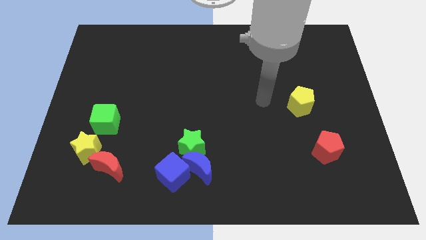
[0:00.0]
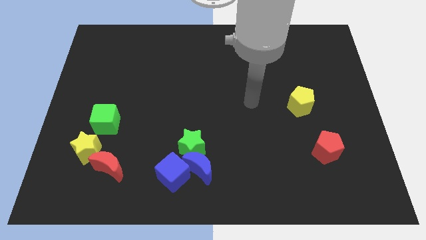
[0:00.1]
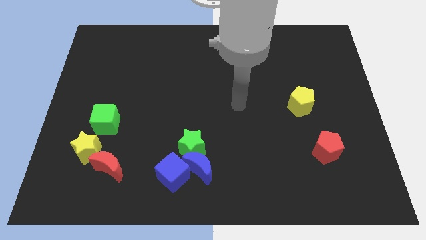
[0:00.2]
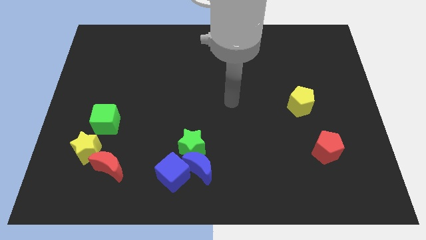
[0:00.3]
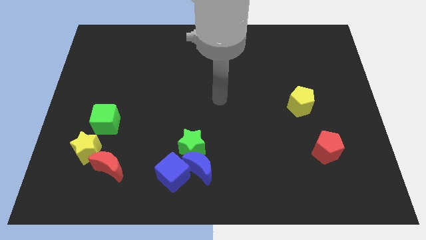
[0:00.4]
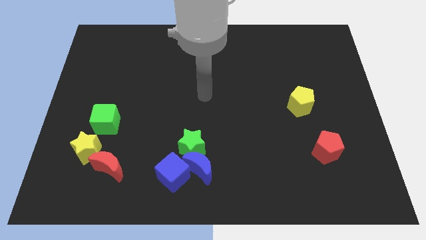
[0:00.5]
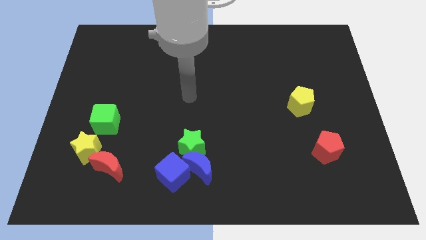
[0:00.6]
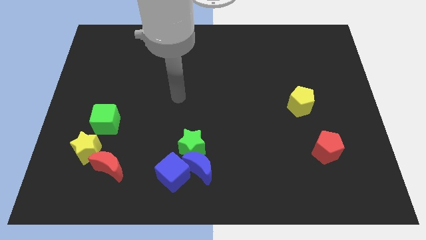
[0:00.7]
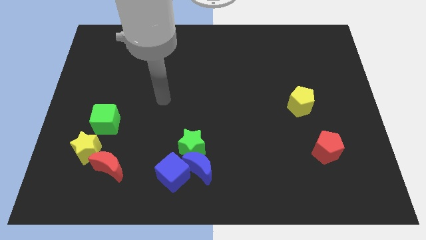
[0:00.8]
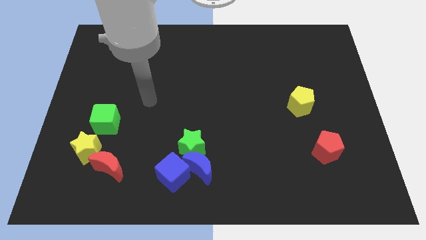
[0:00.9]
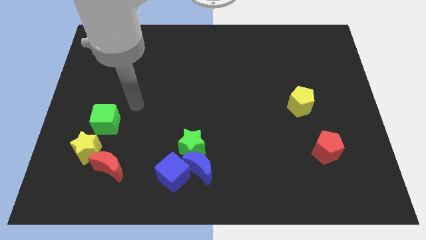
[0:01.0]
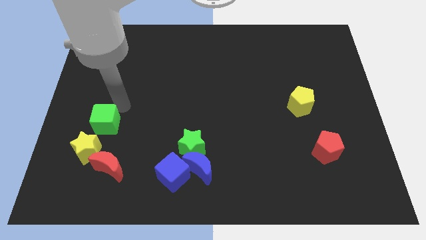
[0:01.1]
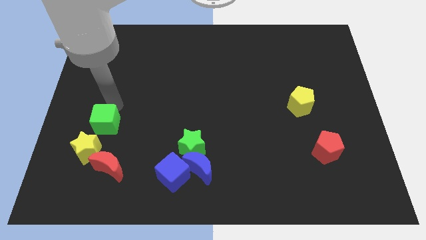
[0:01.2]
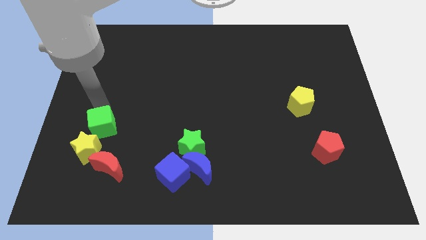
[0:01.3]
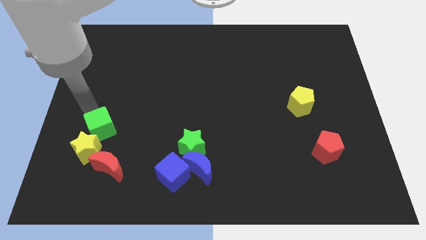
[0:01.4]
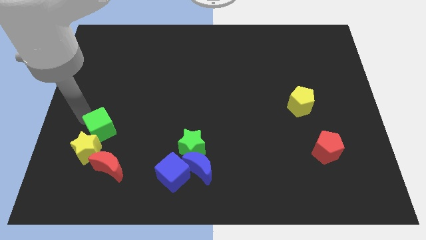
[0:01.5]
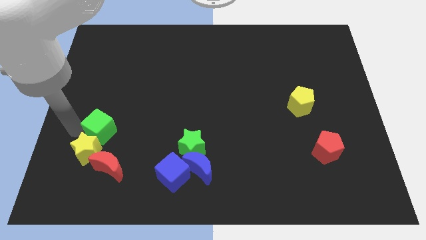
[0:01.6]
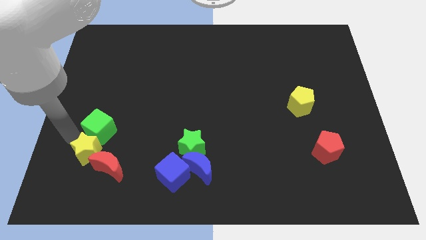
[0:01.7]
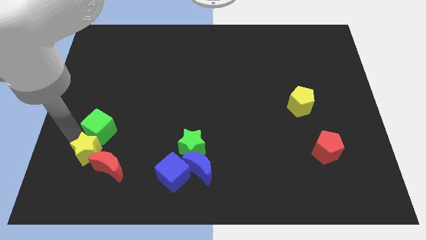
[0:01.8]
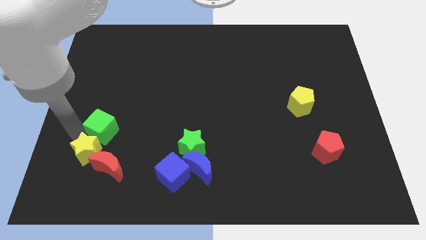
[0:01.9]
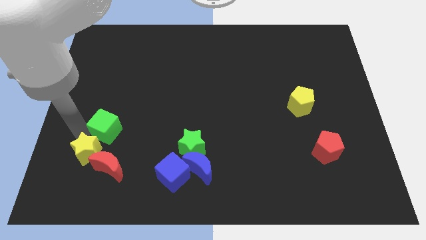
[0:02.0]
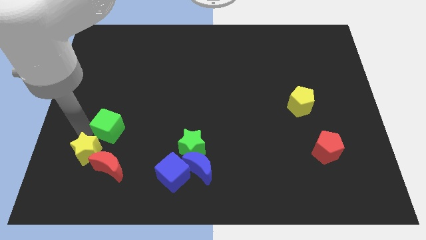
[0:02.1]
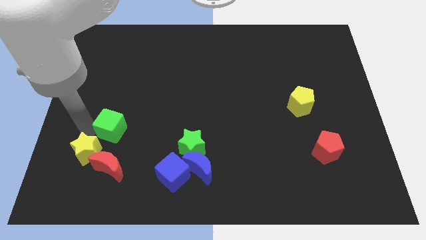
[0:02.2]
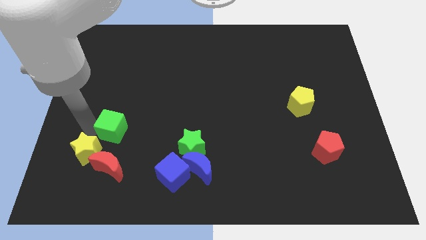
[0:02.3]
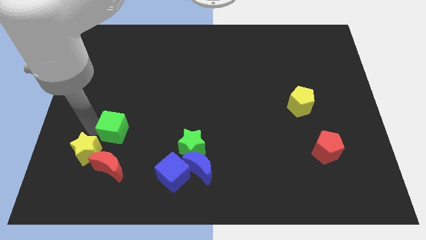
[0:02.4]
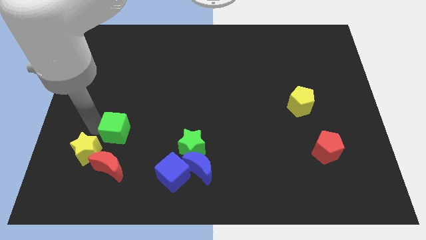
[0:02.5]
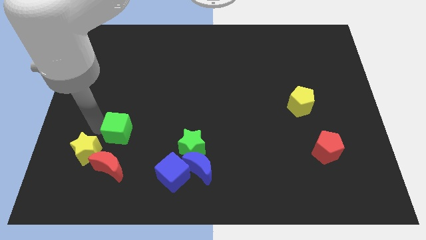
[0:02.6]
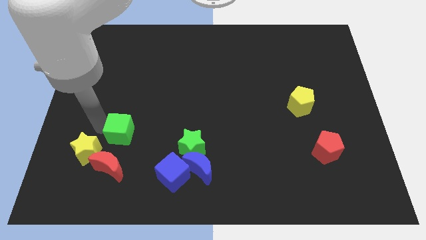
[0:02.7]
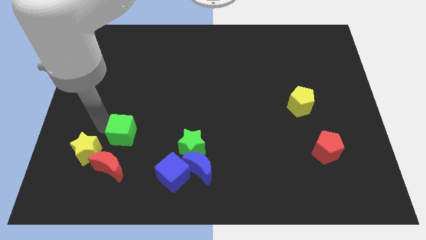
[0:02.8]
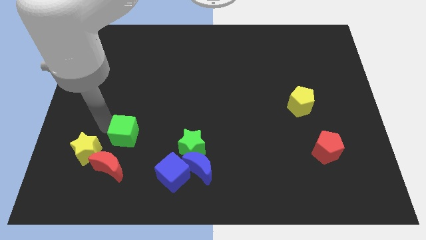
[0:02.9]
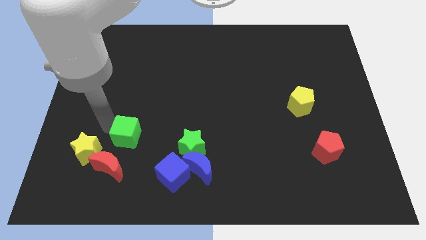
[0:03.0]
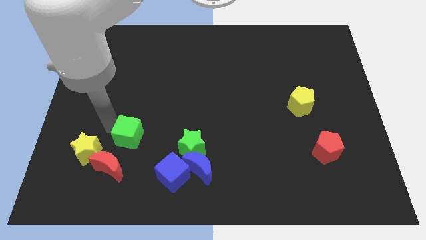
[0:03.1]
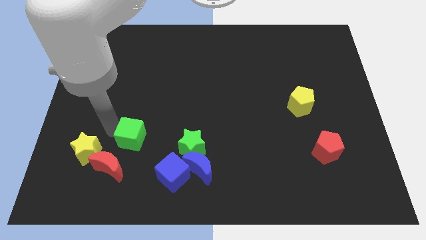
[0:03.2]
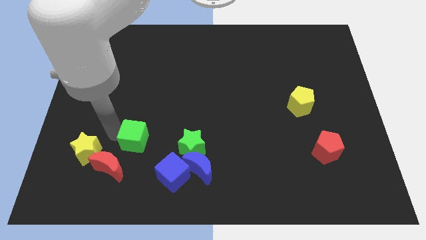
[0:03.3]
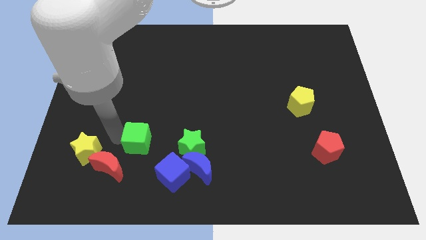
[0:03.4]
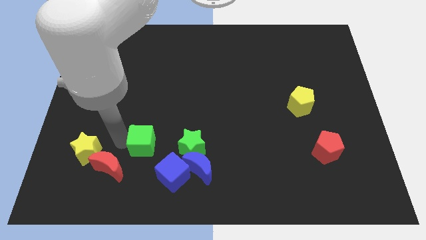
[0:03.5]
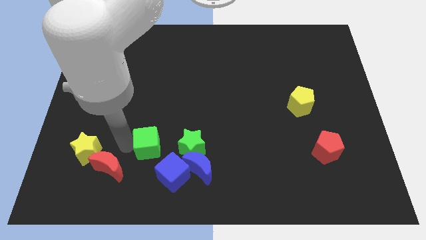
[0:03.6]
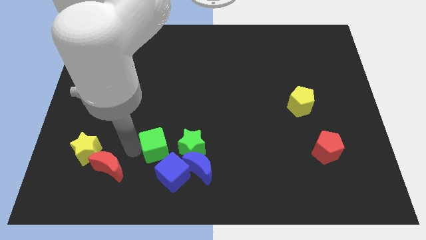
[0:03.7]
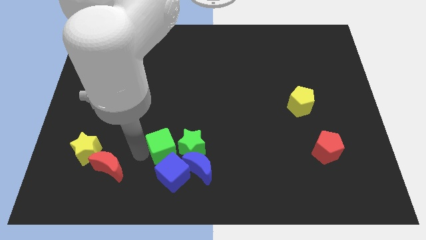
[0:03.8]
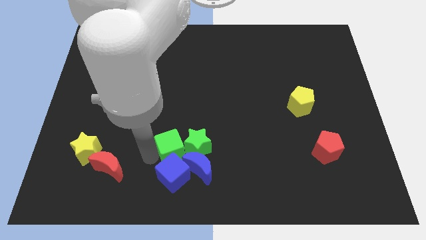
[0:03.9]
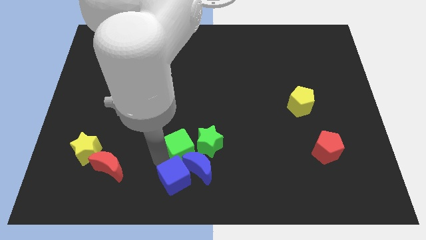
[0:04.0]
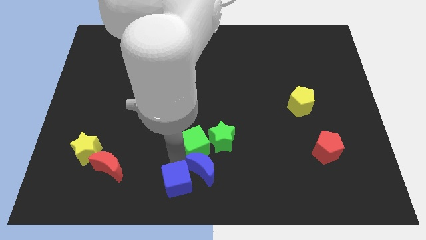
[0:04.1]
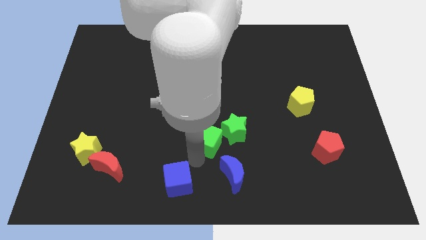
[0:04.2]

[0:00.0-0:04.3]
slide the green cube right

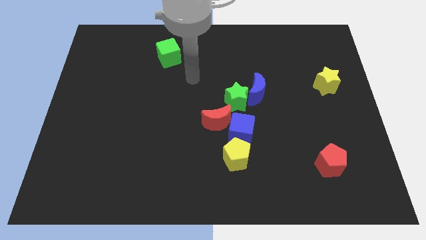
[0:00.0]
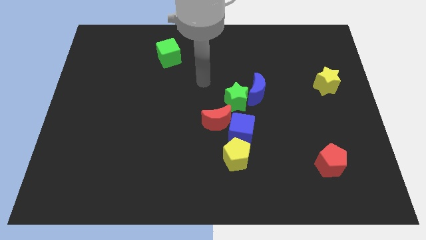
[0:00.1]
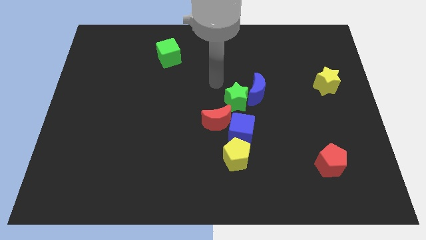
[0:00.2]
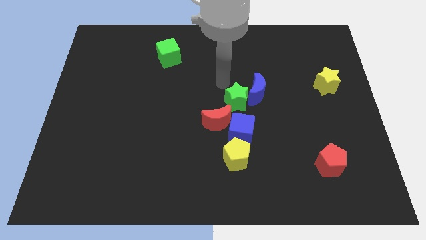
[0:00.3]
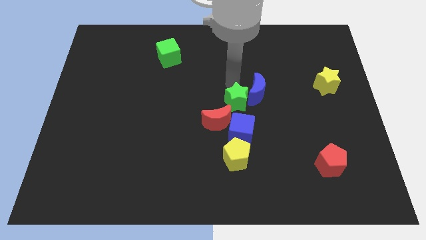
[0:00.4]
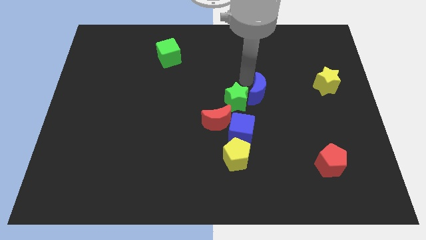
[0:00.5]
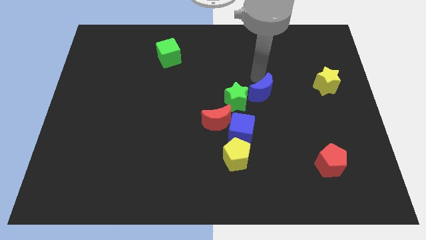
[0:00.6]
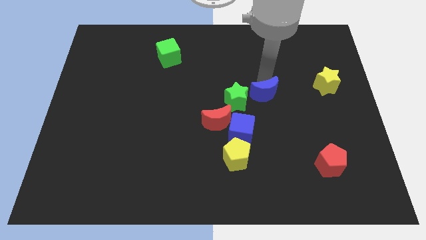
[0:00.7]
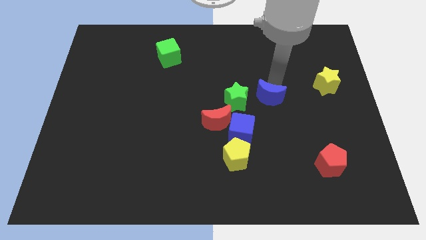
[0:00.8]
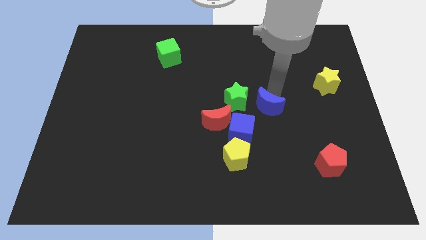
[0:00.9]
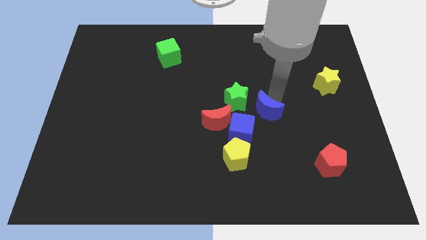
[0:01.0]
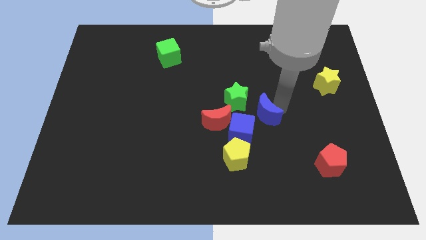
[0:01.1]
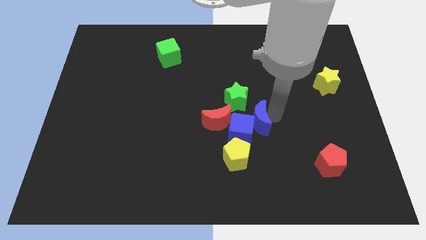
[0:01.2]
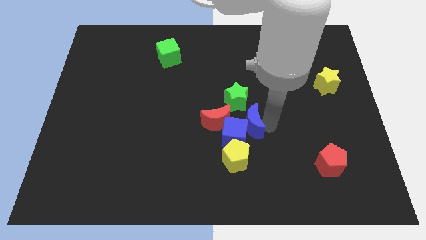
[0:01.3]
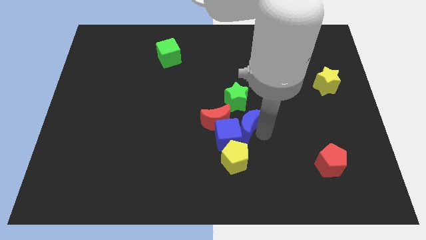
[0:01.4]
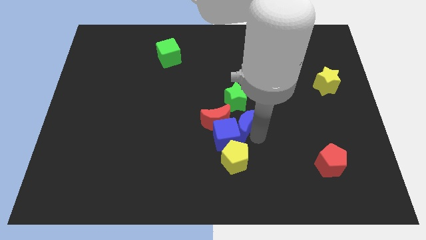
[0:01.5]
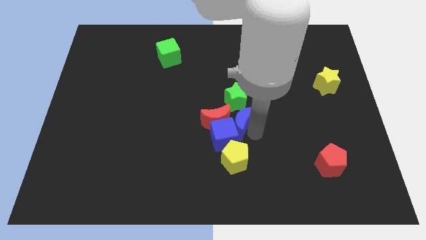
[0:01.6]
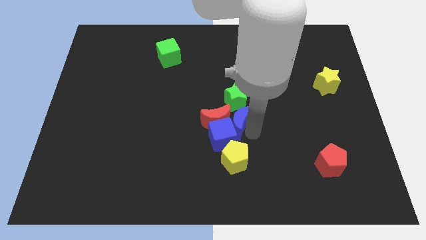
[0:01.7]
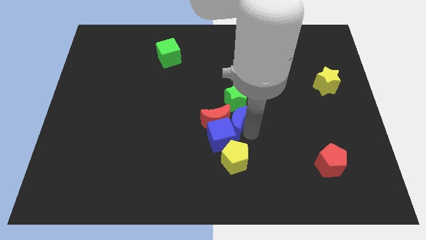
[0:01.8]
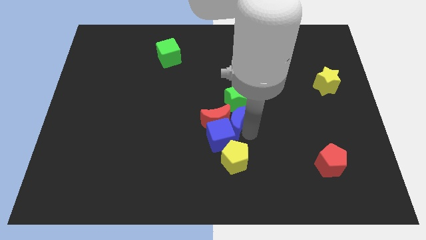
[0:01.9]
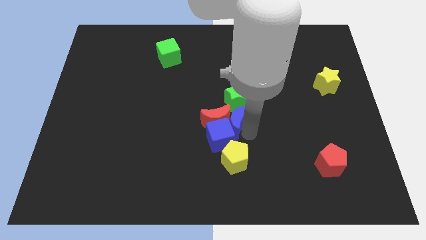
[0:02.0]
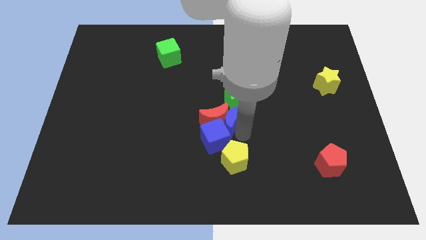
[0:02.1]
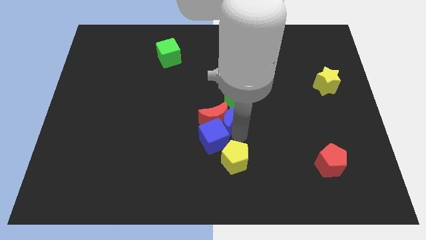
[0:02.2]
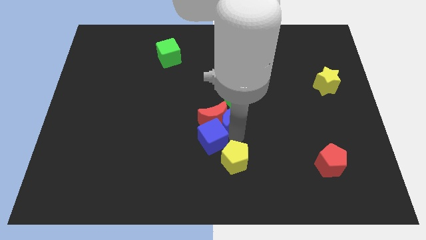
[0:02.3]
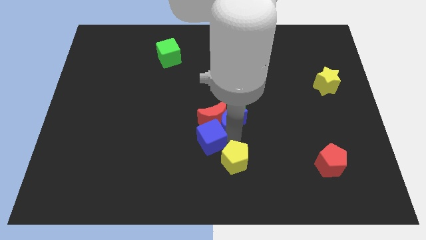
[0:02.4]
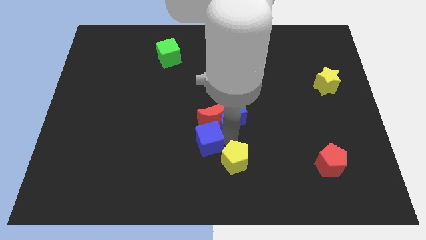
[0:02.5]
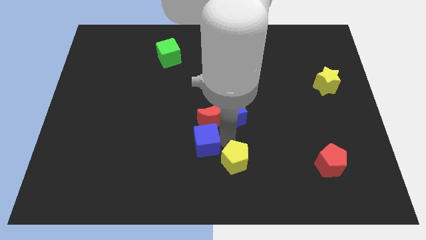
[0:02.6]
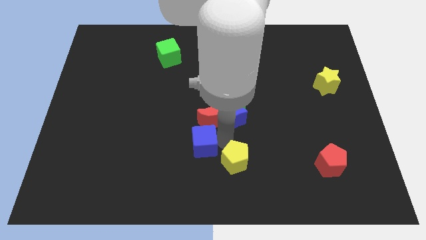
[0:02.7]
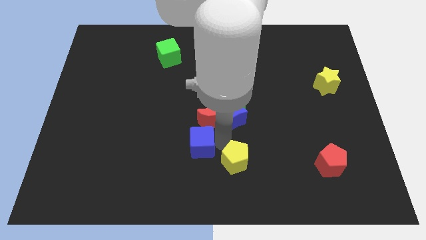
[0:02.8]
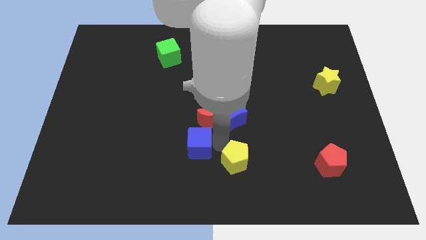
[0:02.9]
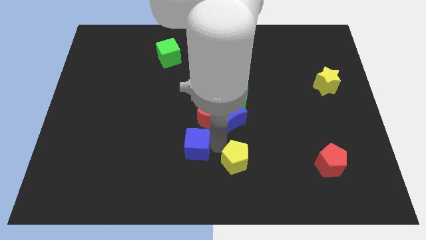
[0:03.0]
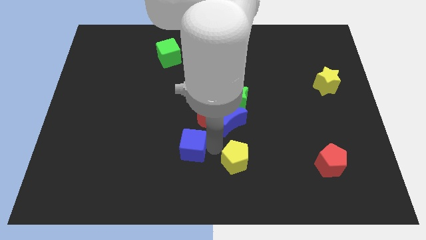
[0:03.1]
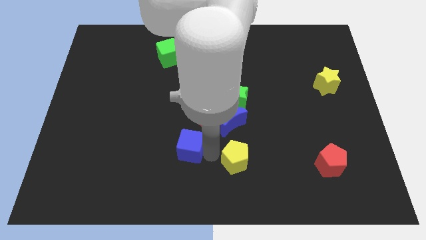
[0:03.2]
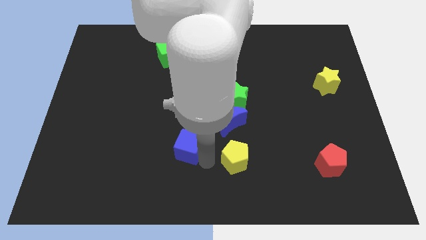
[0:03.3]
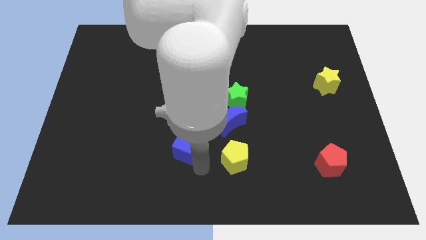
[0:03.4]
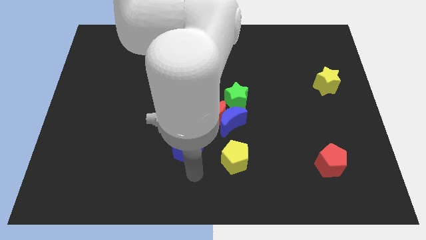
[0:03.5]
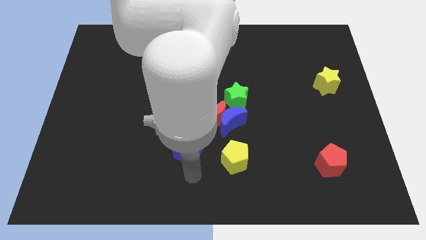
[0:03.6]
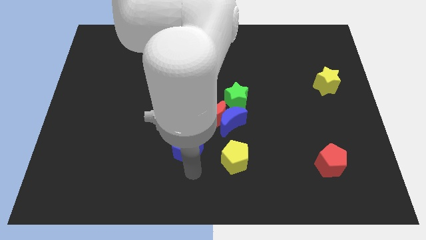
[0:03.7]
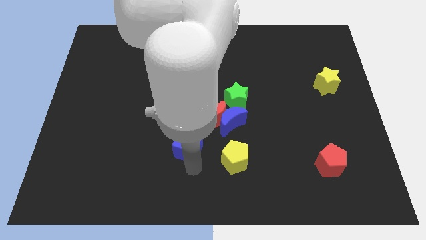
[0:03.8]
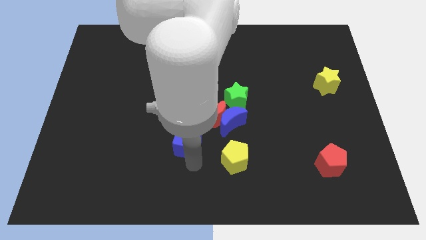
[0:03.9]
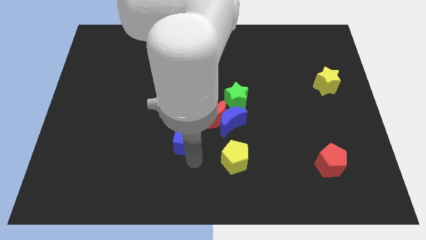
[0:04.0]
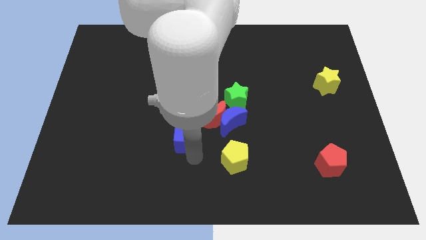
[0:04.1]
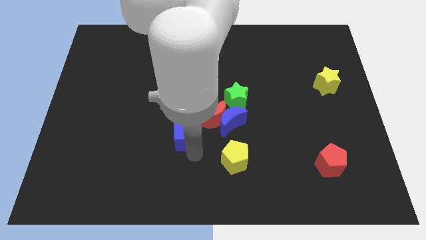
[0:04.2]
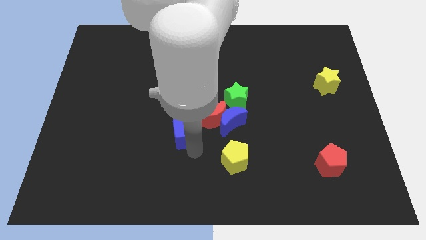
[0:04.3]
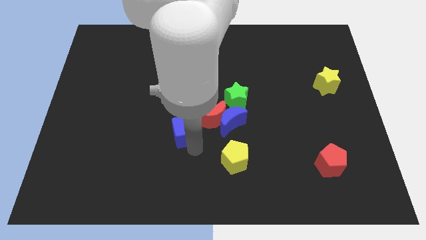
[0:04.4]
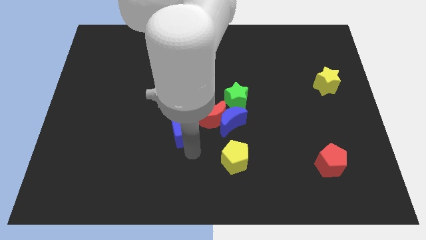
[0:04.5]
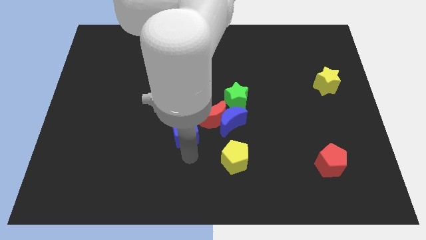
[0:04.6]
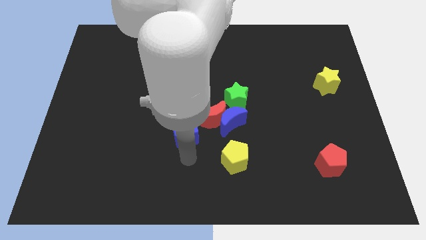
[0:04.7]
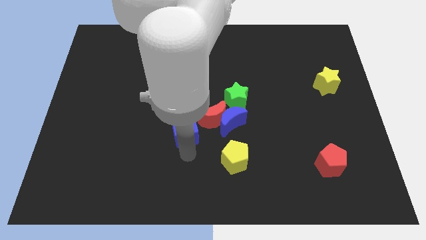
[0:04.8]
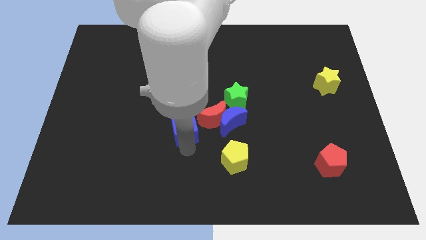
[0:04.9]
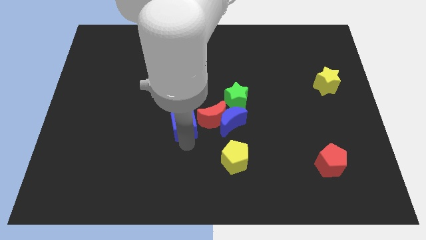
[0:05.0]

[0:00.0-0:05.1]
slide the blue cube a little bit up and then to the left
